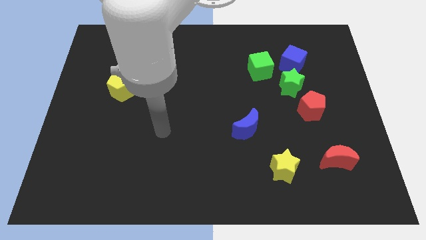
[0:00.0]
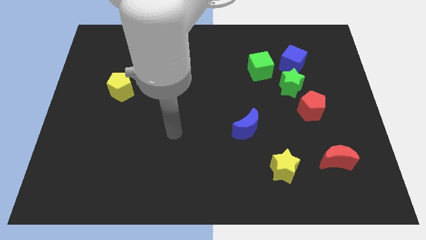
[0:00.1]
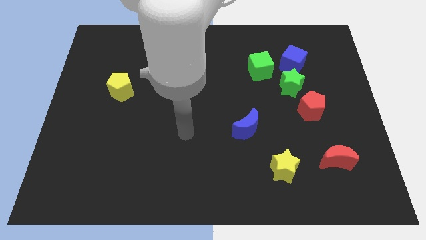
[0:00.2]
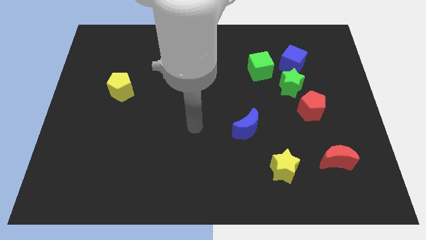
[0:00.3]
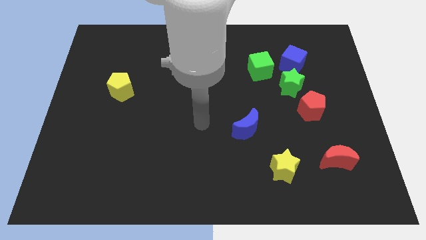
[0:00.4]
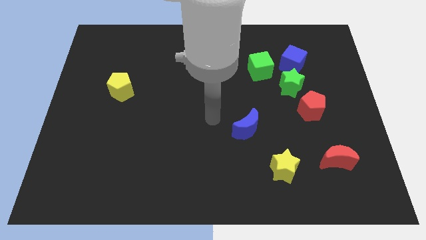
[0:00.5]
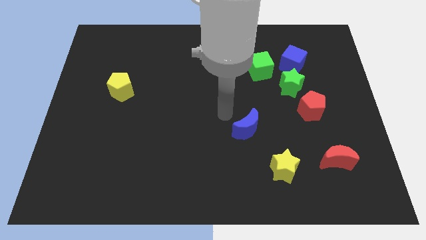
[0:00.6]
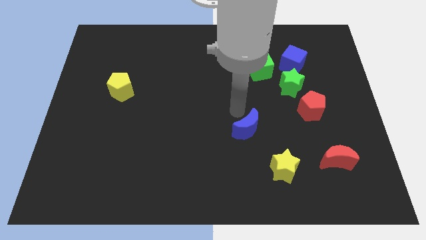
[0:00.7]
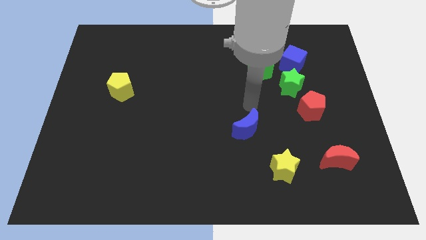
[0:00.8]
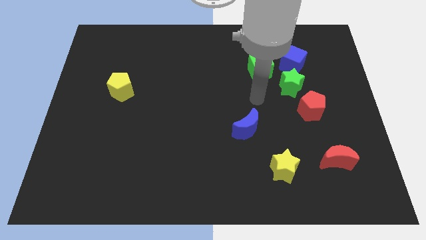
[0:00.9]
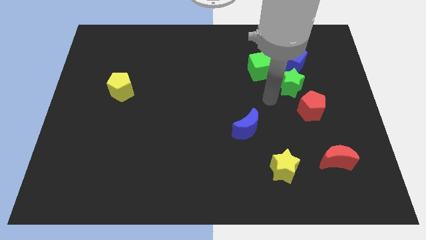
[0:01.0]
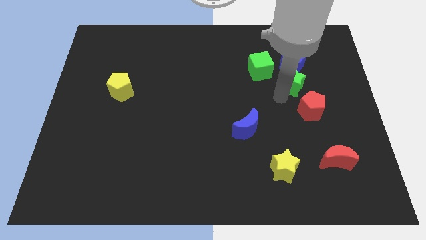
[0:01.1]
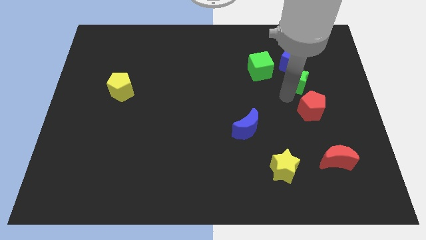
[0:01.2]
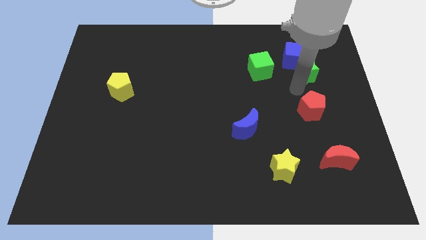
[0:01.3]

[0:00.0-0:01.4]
move the red pentagon away from the green star

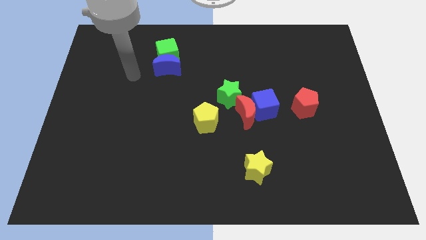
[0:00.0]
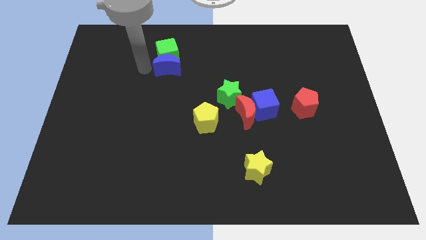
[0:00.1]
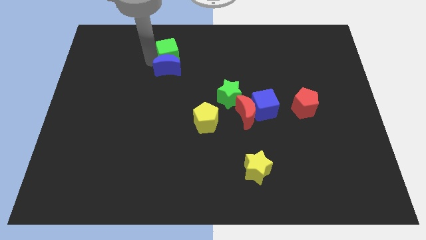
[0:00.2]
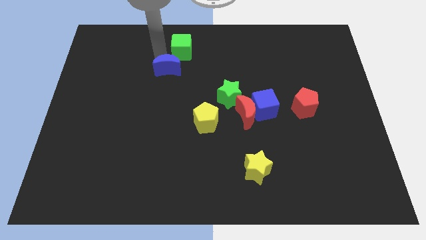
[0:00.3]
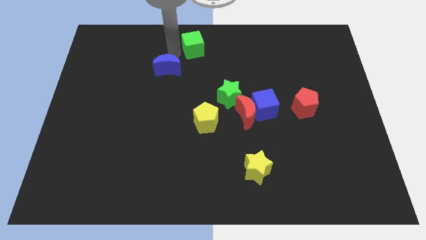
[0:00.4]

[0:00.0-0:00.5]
pull the blue moon apart from the green cube

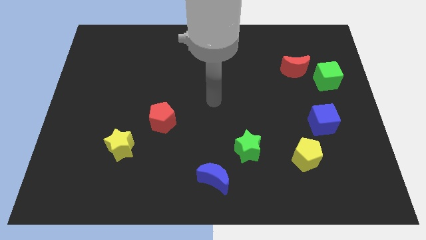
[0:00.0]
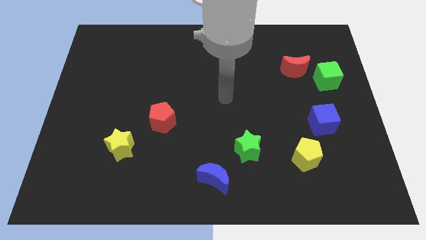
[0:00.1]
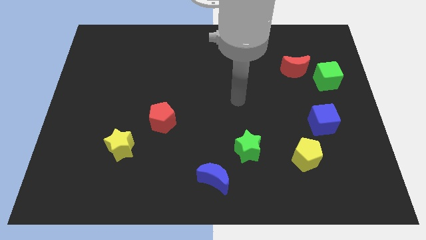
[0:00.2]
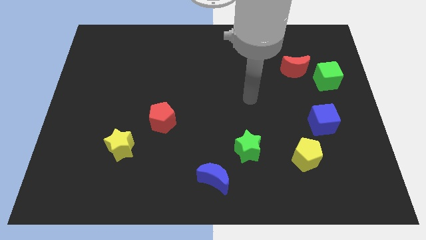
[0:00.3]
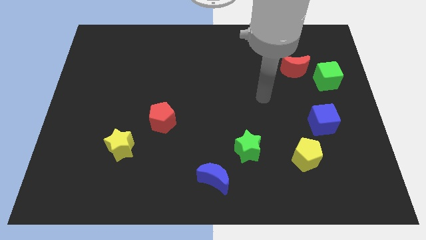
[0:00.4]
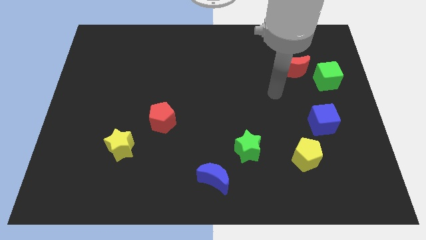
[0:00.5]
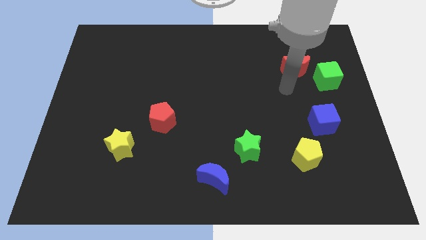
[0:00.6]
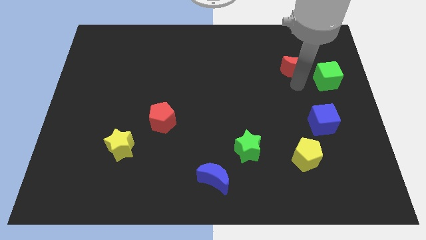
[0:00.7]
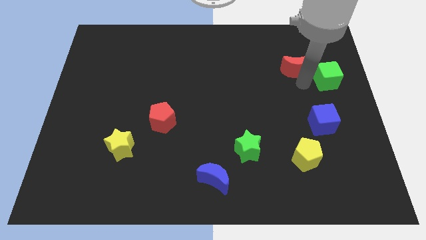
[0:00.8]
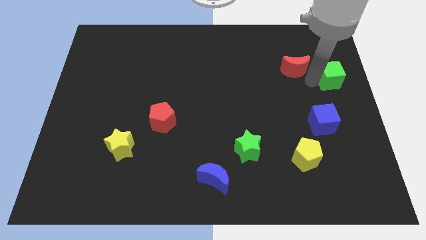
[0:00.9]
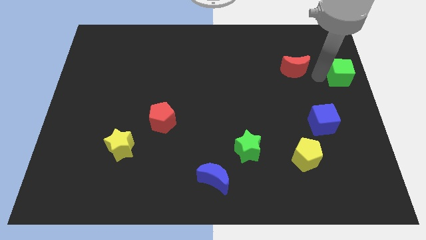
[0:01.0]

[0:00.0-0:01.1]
separate the red moon from the green cube

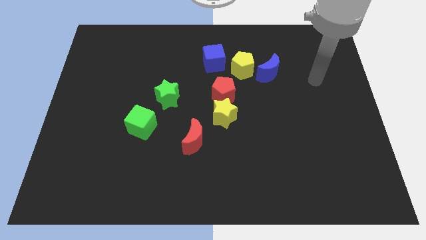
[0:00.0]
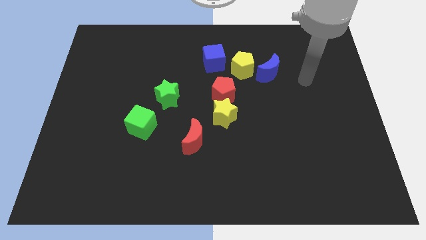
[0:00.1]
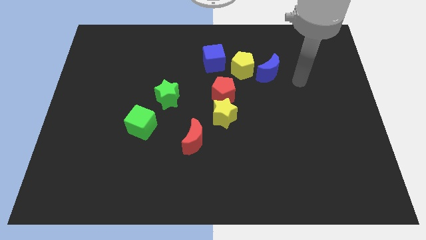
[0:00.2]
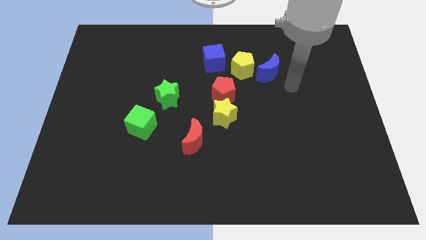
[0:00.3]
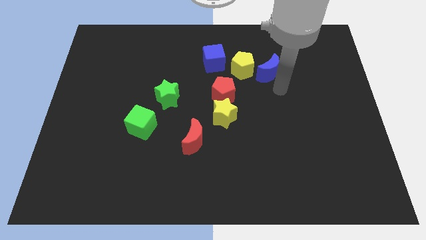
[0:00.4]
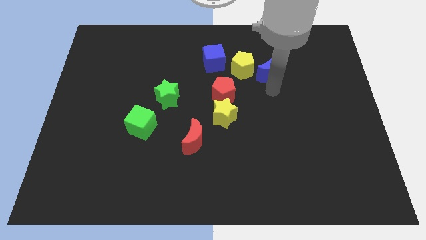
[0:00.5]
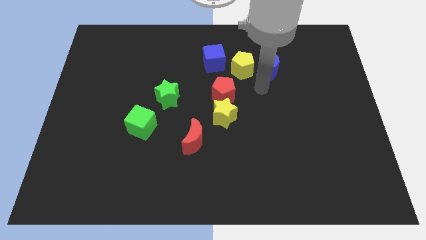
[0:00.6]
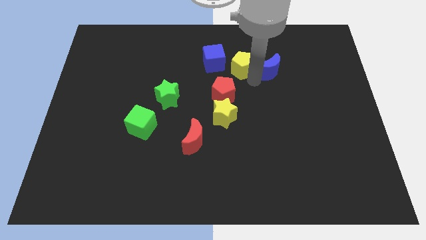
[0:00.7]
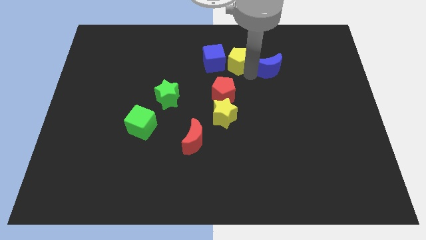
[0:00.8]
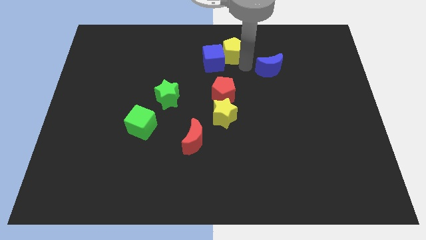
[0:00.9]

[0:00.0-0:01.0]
separate the blue moon from the yellow pentagon

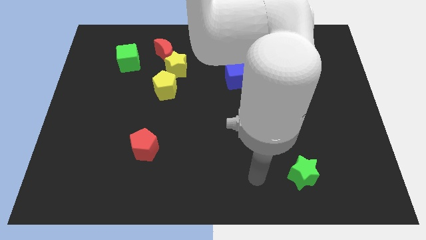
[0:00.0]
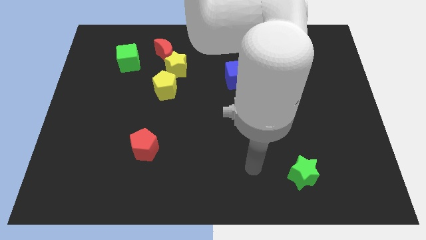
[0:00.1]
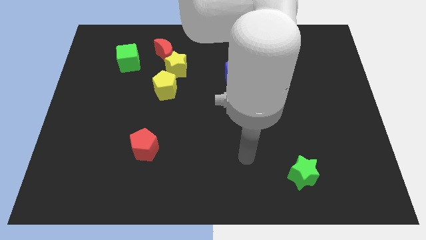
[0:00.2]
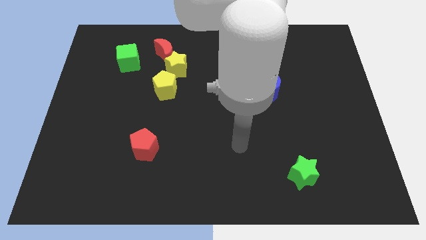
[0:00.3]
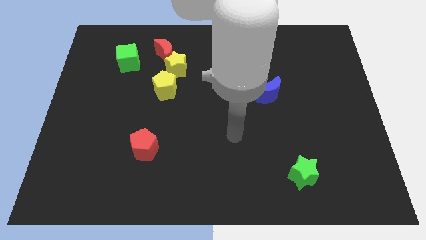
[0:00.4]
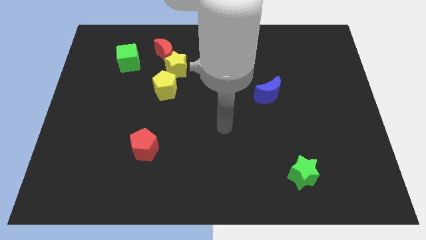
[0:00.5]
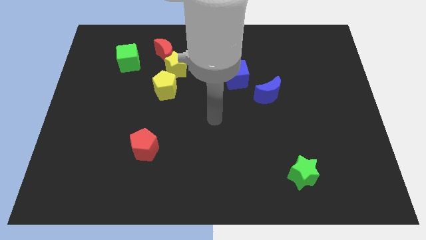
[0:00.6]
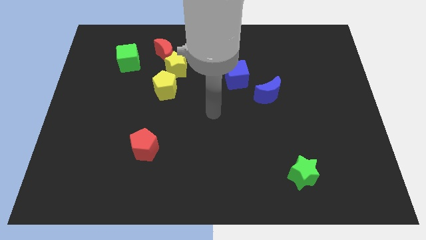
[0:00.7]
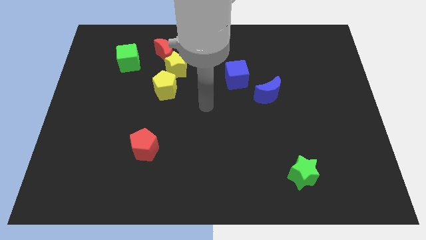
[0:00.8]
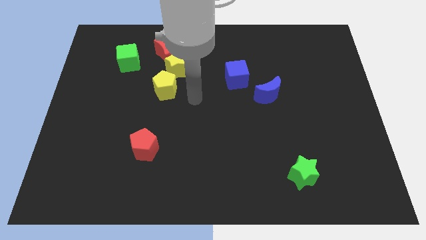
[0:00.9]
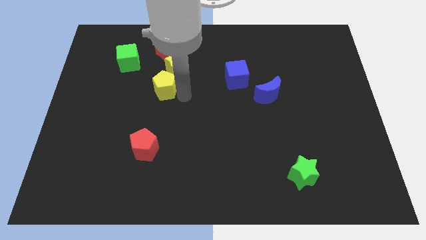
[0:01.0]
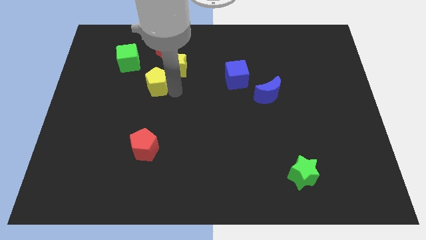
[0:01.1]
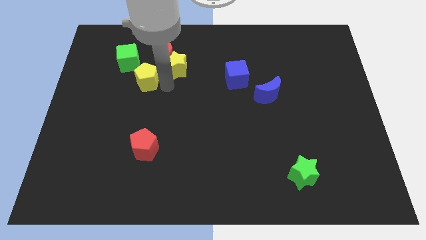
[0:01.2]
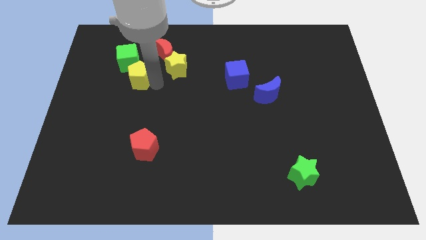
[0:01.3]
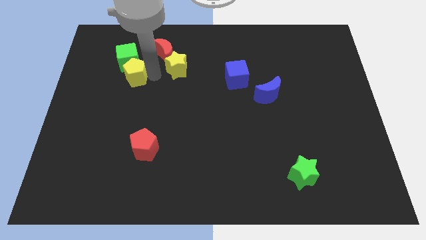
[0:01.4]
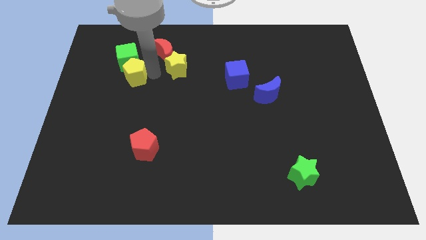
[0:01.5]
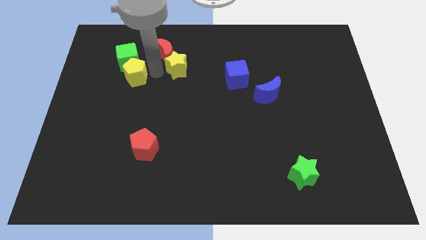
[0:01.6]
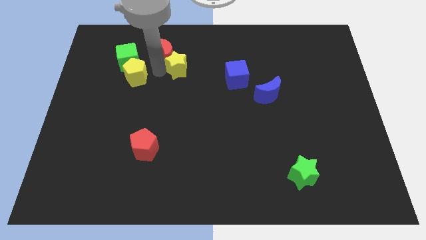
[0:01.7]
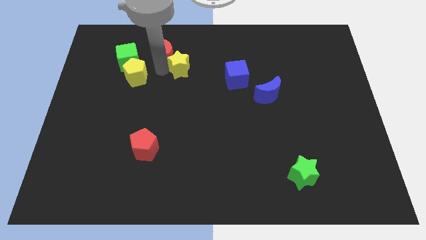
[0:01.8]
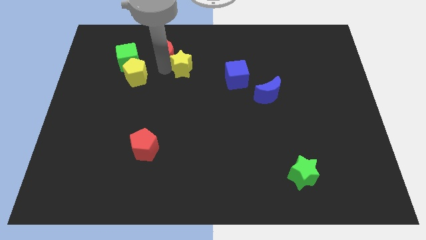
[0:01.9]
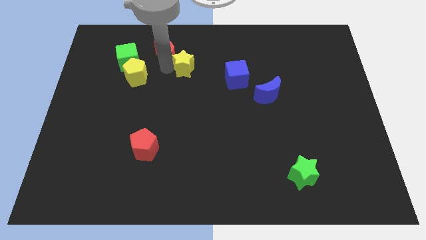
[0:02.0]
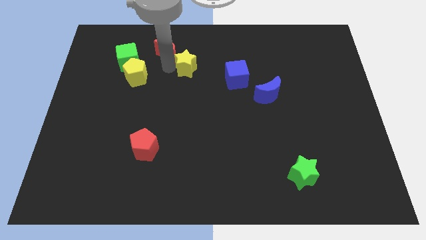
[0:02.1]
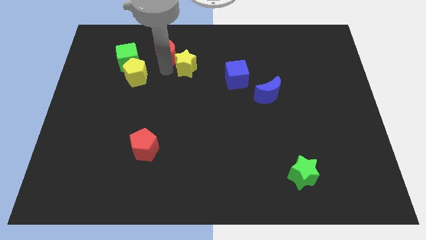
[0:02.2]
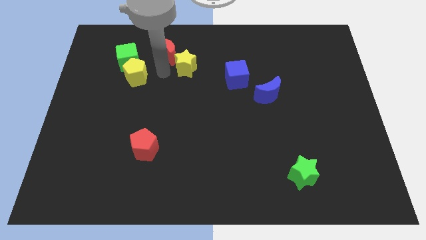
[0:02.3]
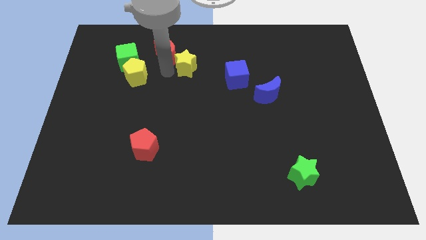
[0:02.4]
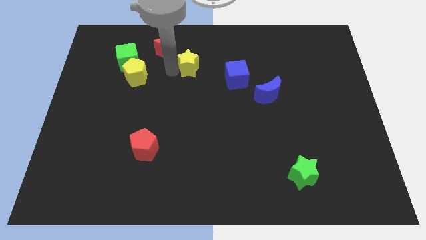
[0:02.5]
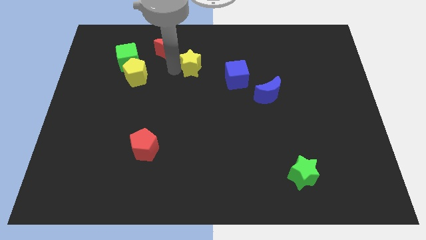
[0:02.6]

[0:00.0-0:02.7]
separate the yellow star from the red moon and yellow pentagon

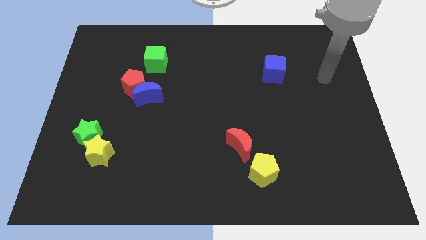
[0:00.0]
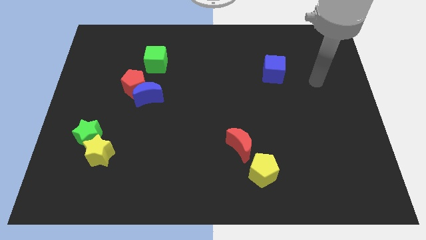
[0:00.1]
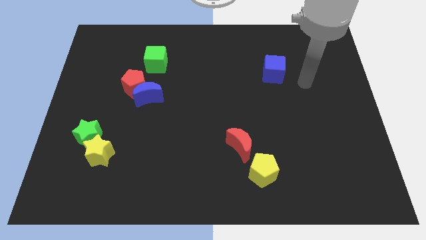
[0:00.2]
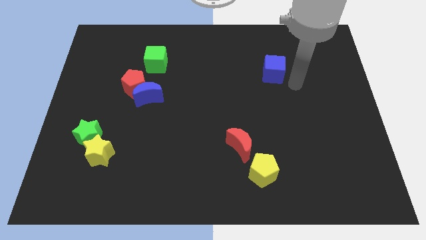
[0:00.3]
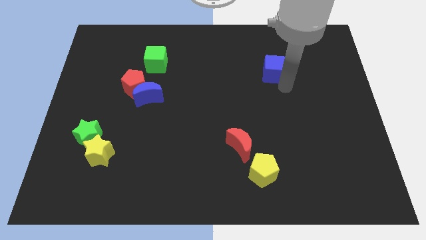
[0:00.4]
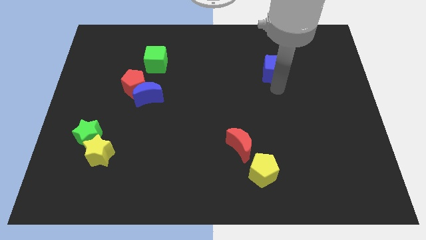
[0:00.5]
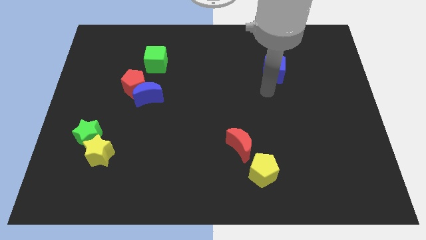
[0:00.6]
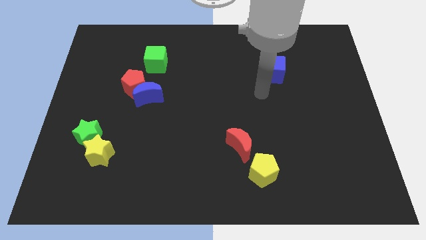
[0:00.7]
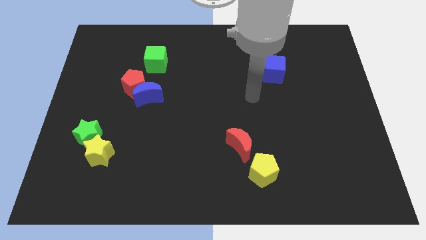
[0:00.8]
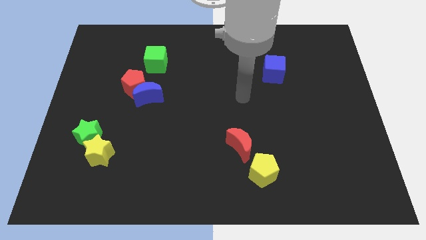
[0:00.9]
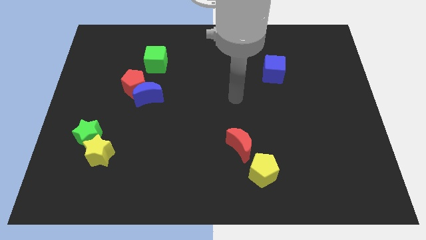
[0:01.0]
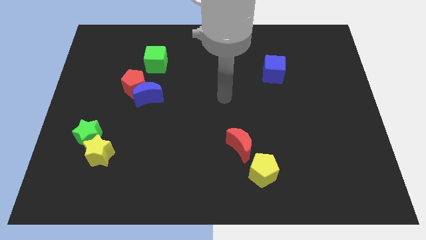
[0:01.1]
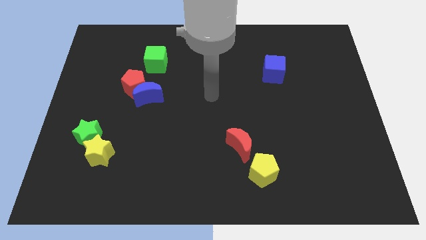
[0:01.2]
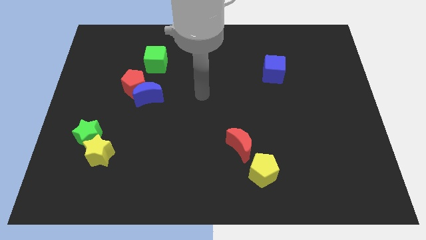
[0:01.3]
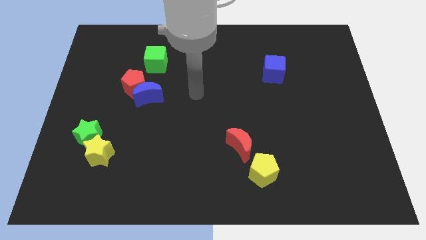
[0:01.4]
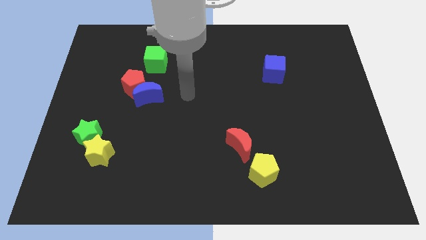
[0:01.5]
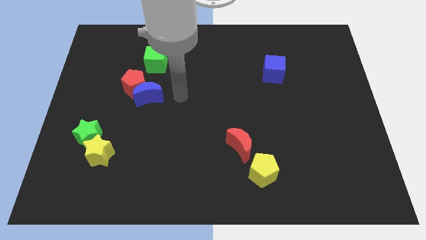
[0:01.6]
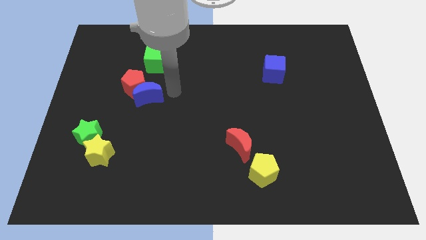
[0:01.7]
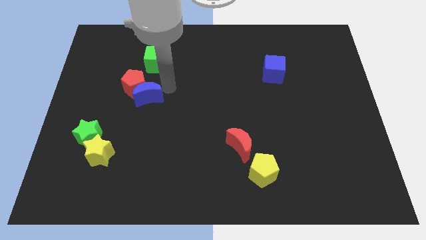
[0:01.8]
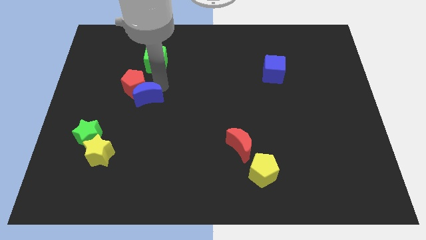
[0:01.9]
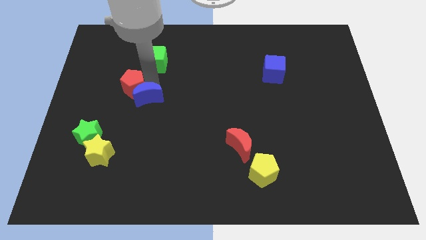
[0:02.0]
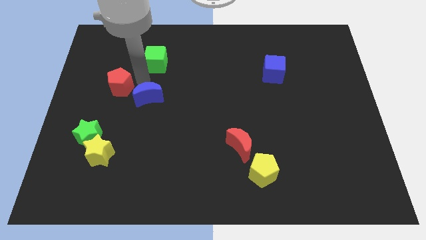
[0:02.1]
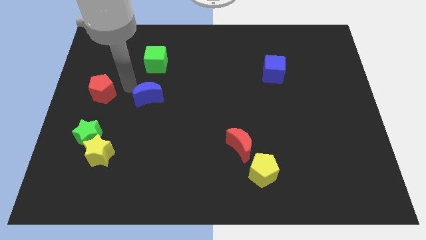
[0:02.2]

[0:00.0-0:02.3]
separate the blue moon from the red pentagon

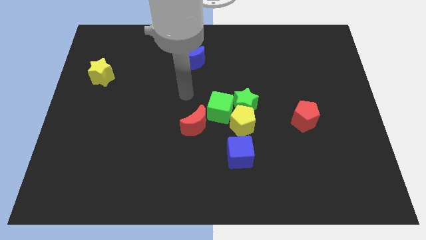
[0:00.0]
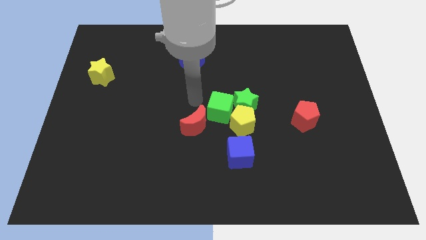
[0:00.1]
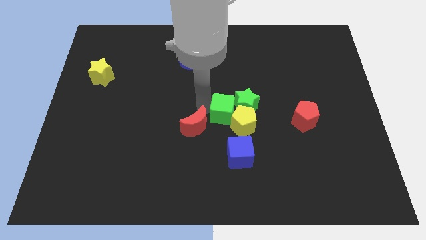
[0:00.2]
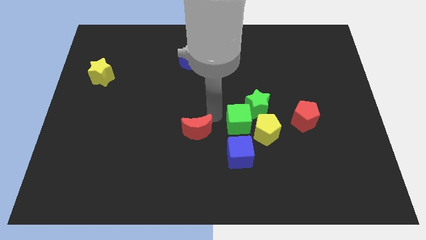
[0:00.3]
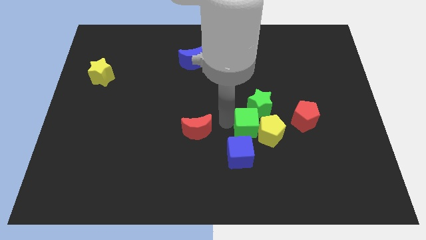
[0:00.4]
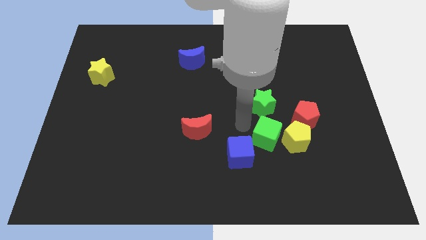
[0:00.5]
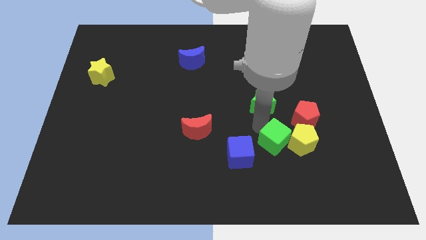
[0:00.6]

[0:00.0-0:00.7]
pull the green star apart from the yellow pentagon and green cube
